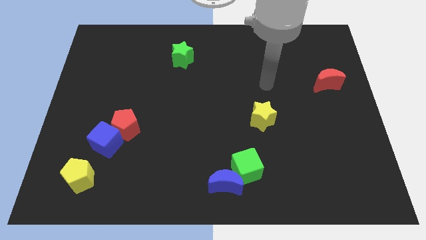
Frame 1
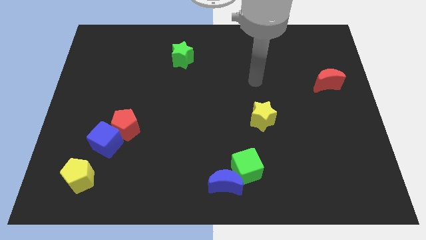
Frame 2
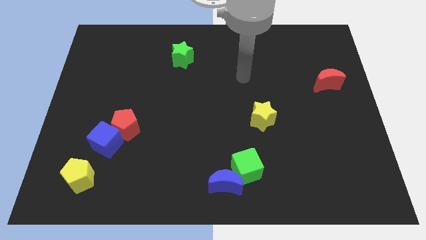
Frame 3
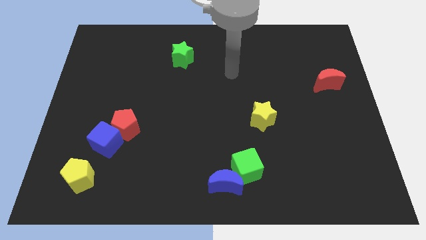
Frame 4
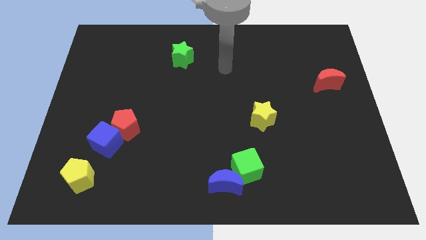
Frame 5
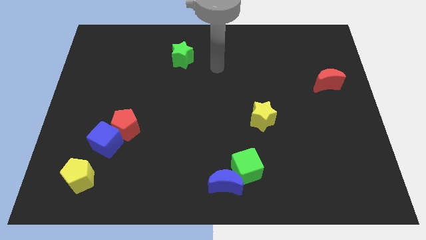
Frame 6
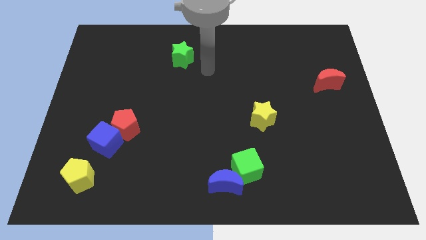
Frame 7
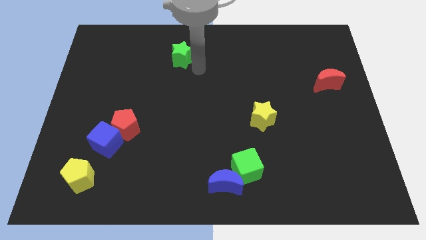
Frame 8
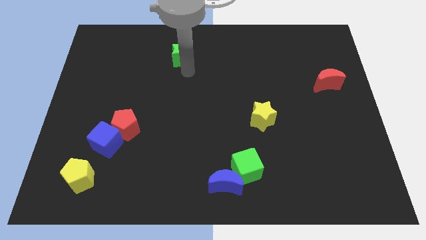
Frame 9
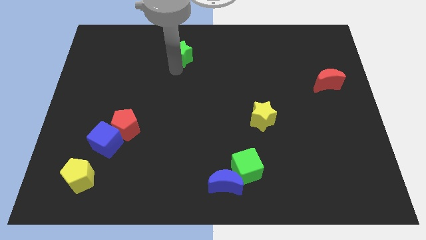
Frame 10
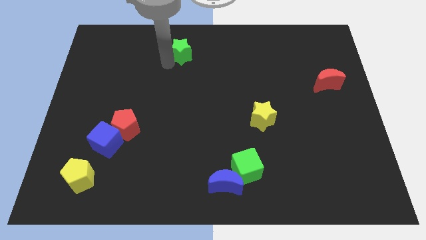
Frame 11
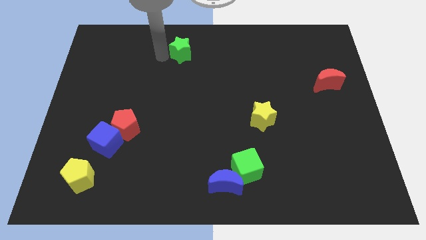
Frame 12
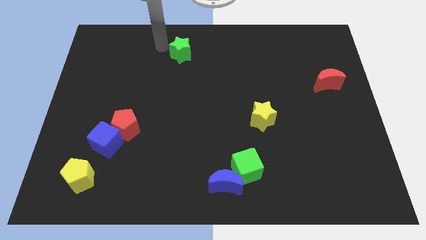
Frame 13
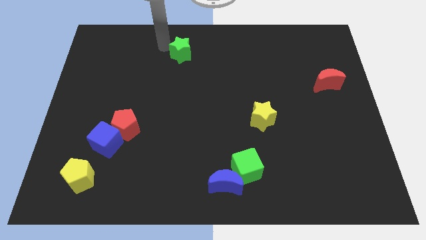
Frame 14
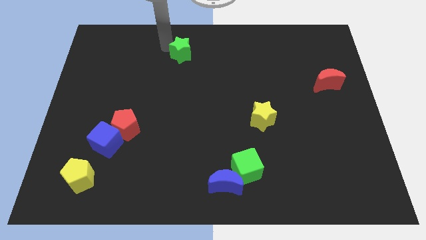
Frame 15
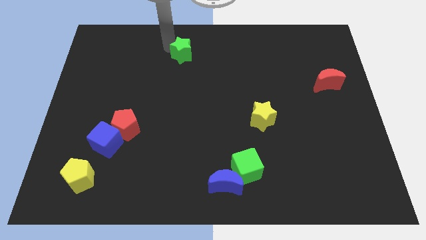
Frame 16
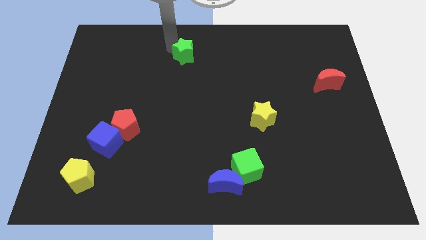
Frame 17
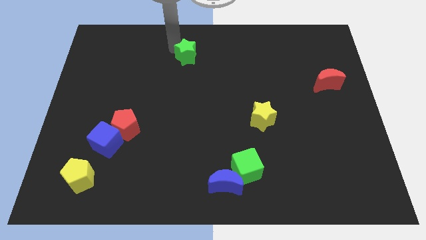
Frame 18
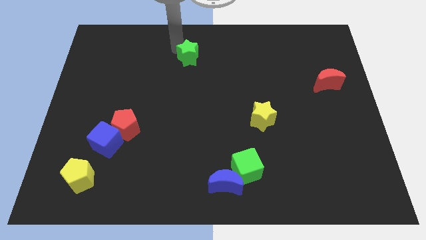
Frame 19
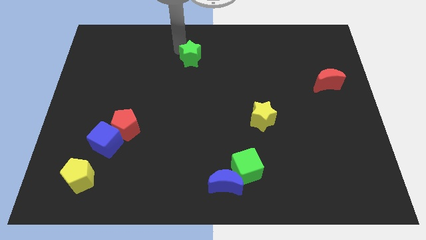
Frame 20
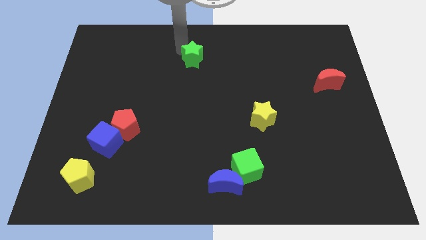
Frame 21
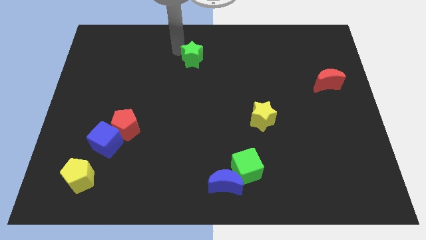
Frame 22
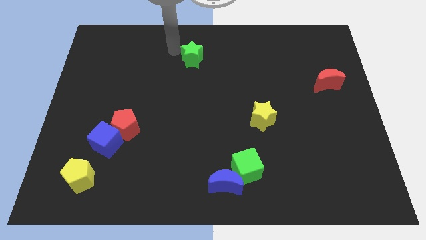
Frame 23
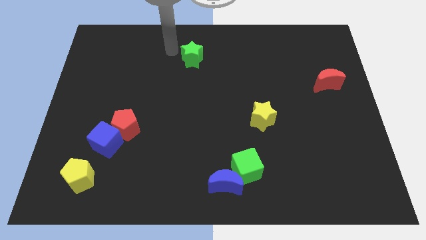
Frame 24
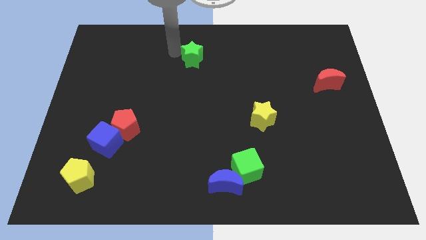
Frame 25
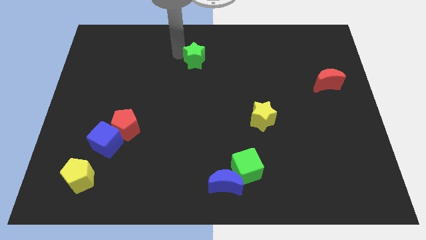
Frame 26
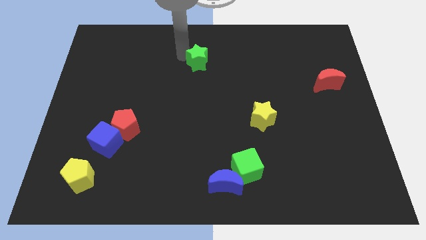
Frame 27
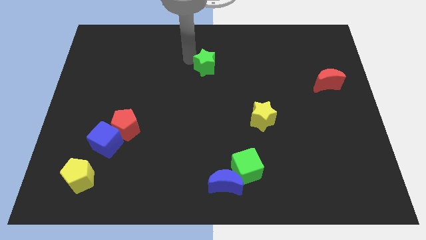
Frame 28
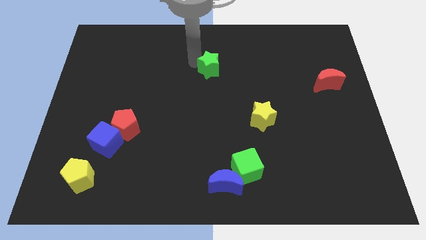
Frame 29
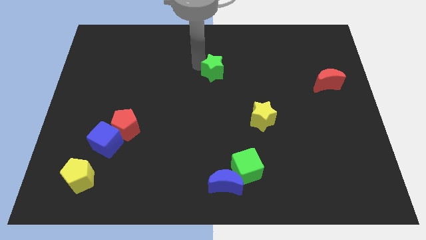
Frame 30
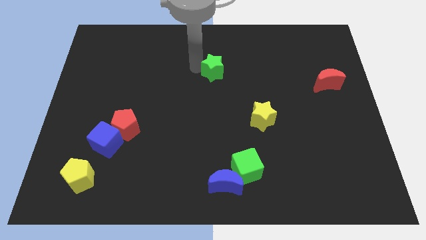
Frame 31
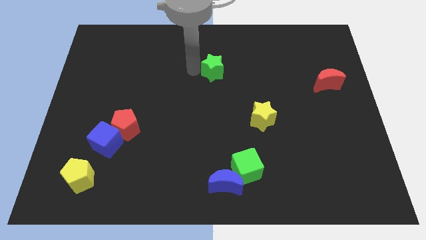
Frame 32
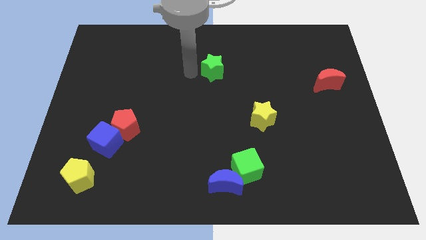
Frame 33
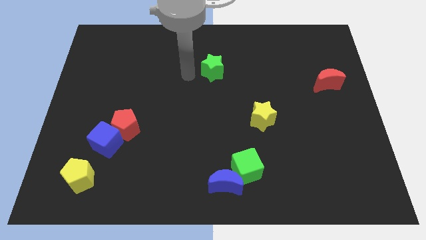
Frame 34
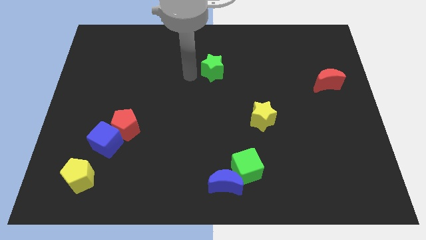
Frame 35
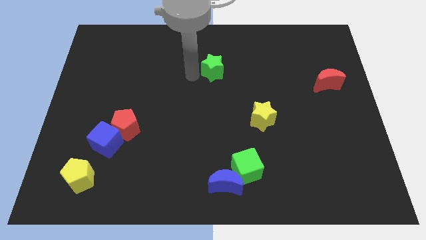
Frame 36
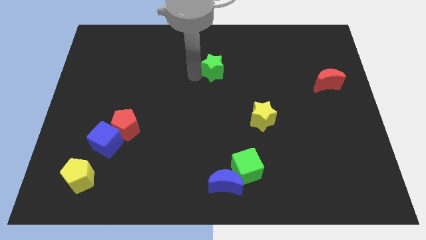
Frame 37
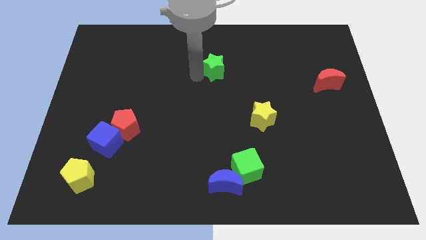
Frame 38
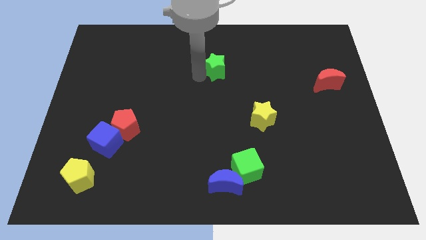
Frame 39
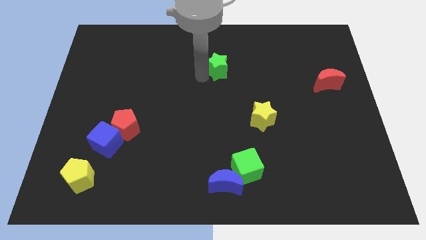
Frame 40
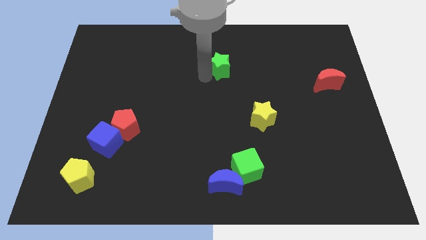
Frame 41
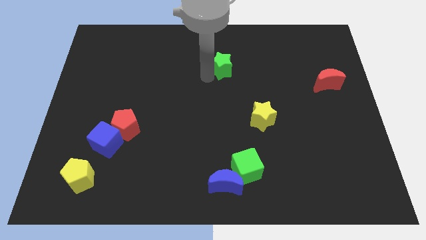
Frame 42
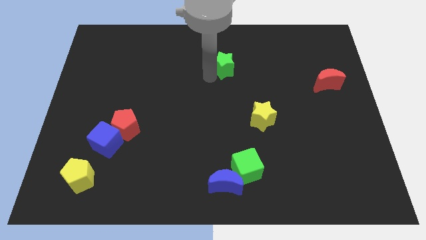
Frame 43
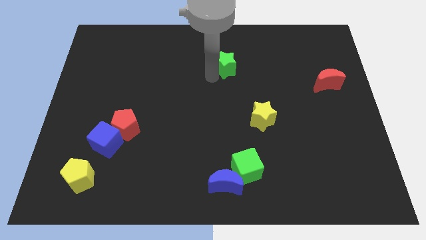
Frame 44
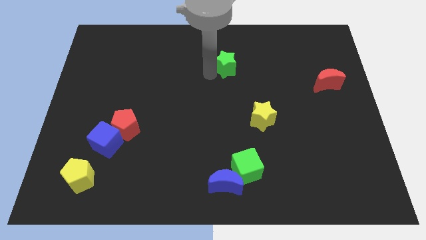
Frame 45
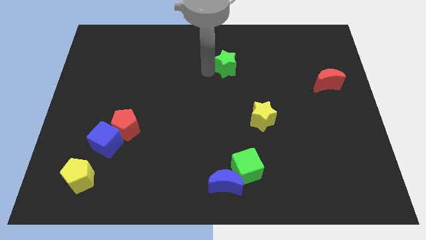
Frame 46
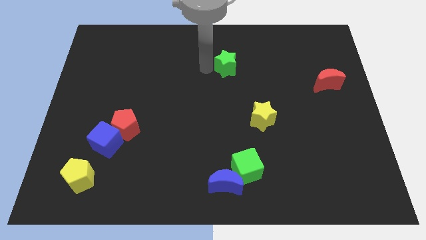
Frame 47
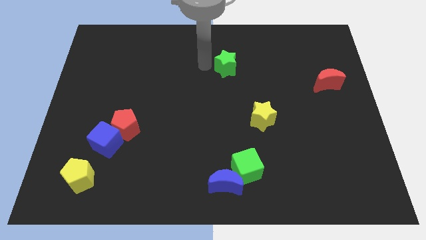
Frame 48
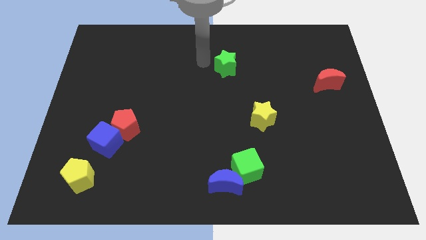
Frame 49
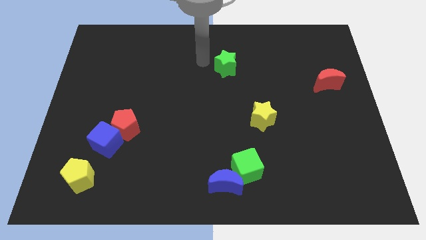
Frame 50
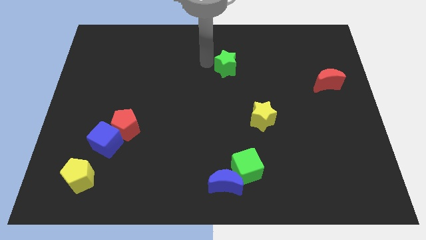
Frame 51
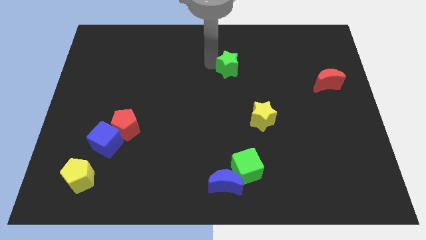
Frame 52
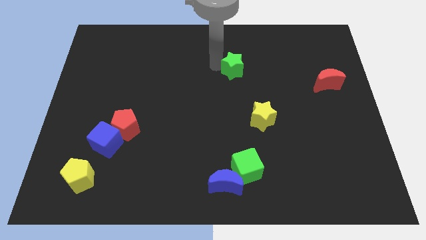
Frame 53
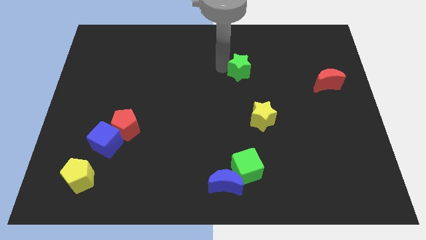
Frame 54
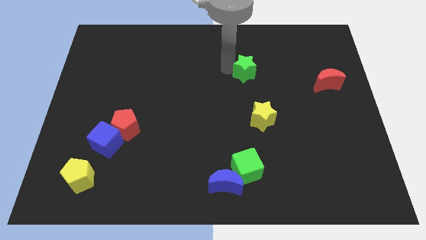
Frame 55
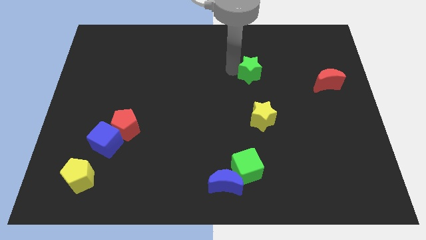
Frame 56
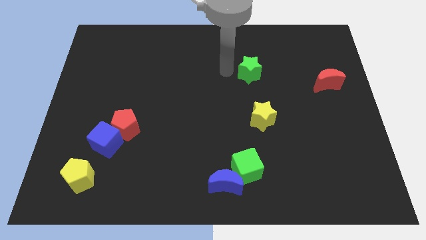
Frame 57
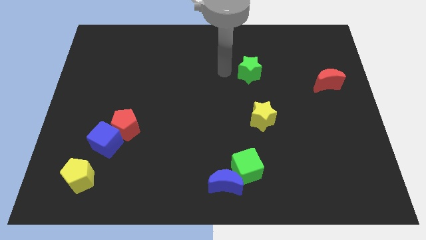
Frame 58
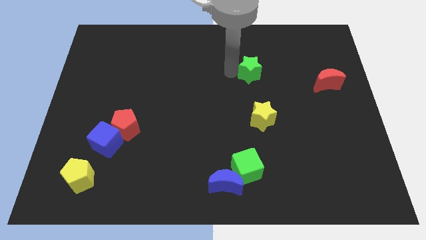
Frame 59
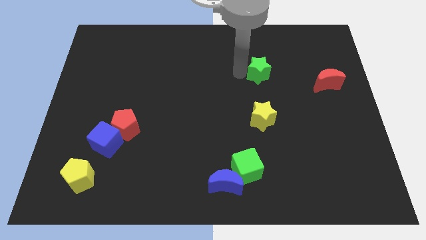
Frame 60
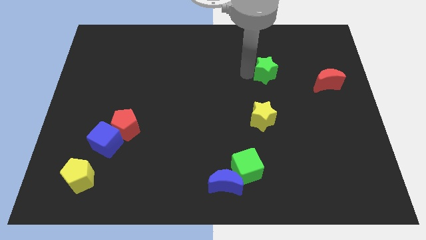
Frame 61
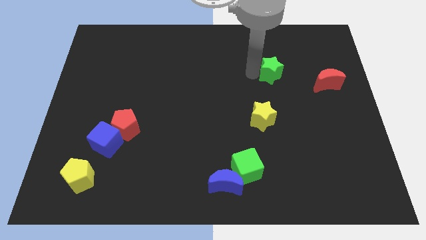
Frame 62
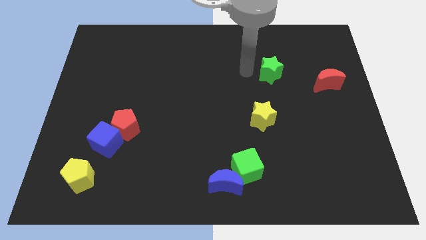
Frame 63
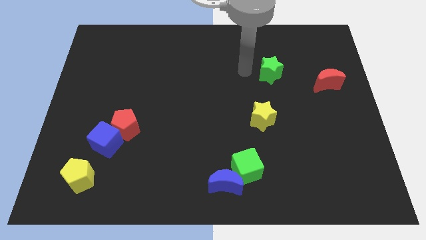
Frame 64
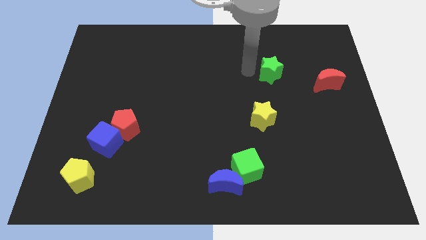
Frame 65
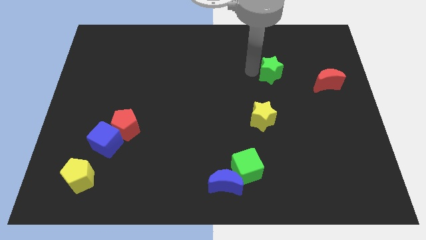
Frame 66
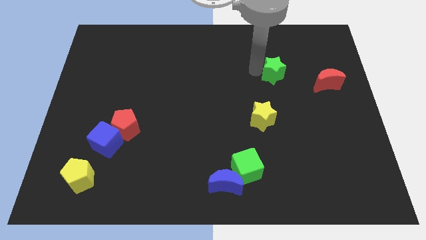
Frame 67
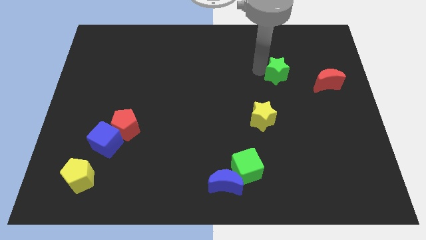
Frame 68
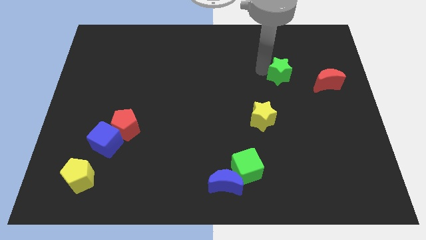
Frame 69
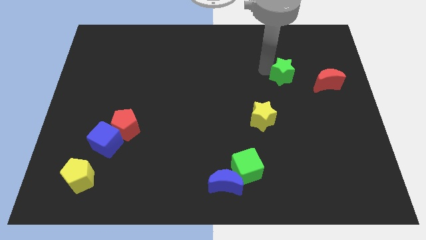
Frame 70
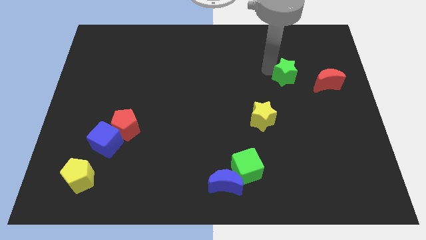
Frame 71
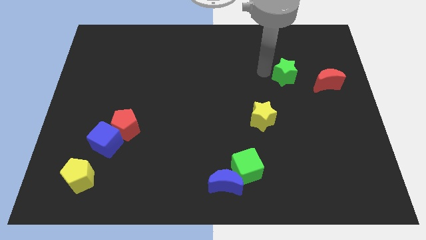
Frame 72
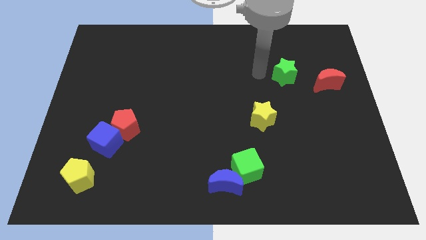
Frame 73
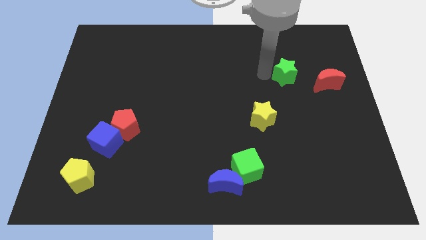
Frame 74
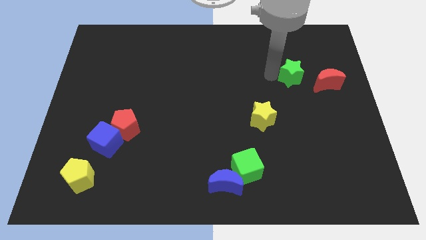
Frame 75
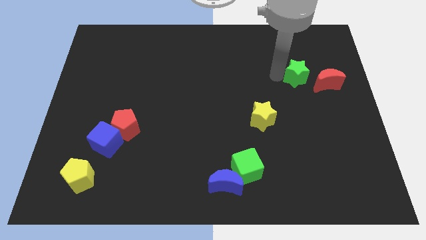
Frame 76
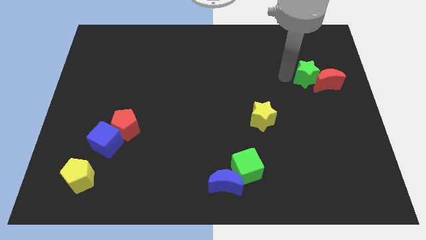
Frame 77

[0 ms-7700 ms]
slide the green star to the red moon
